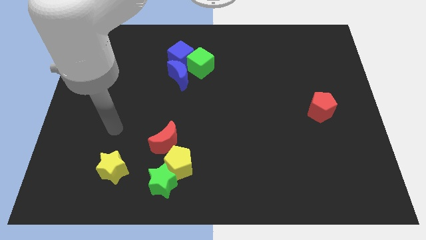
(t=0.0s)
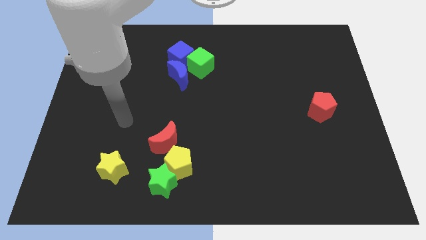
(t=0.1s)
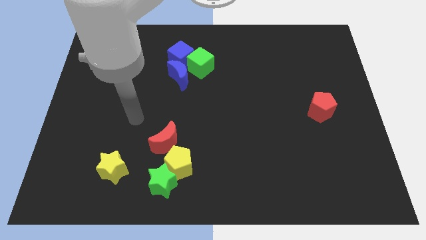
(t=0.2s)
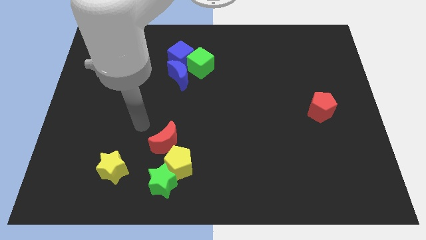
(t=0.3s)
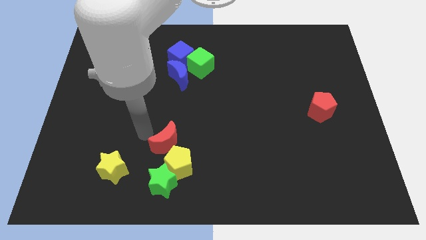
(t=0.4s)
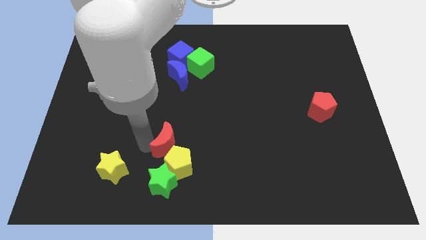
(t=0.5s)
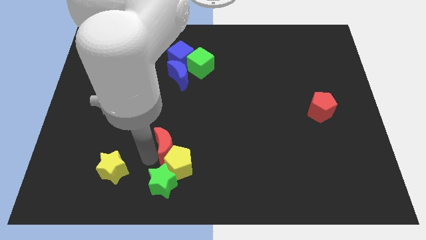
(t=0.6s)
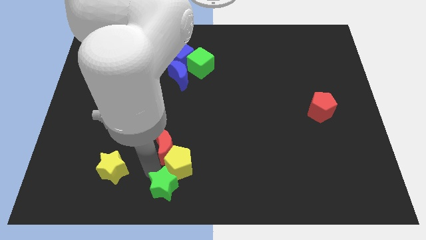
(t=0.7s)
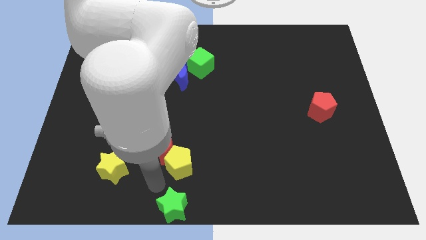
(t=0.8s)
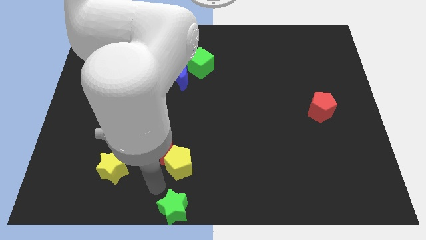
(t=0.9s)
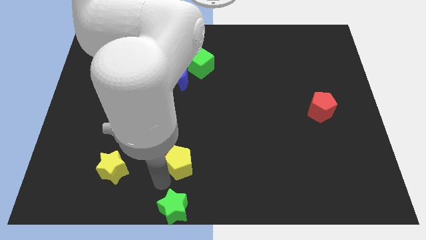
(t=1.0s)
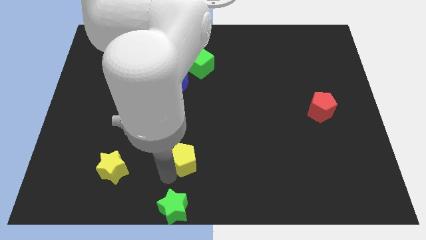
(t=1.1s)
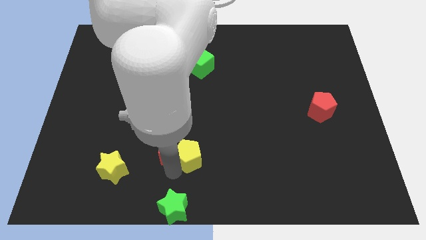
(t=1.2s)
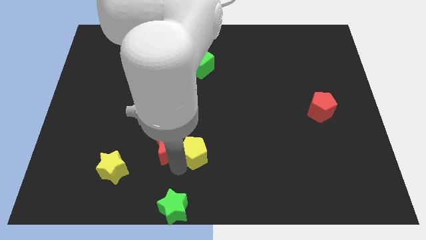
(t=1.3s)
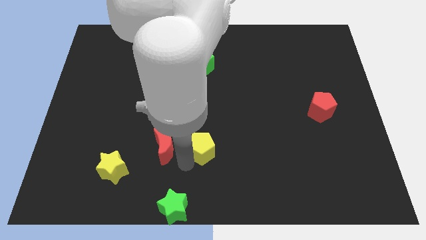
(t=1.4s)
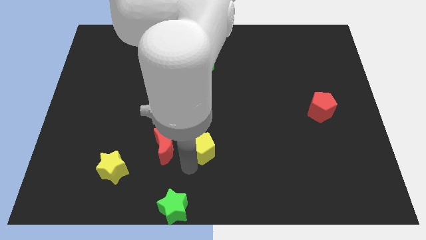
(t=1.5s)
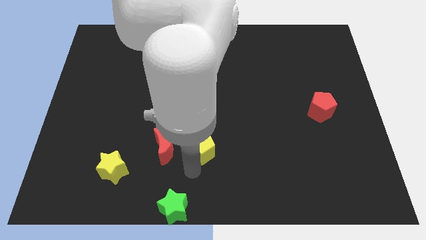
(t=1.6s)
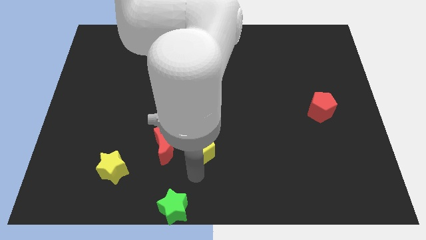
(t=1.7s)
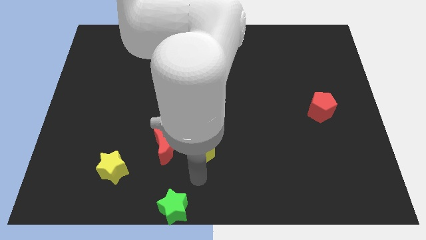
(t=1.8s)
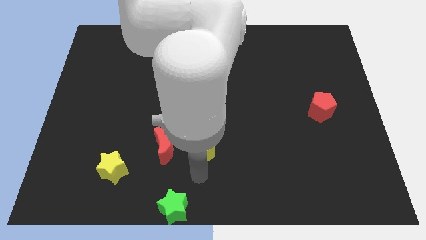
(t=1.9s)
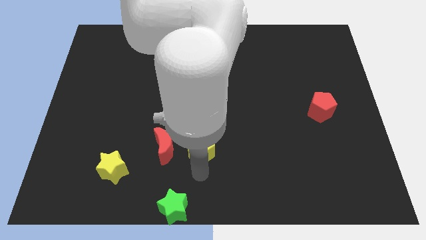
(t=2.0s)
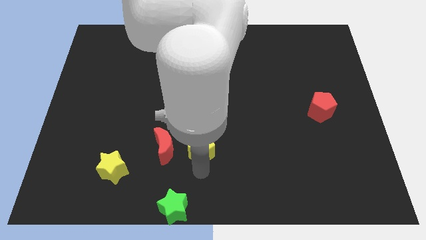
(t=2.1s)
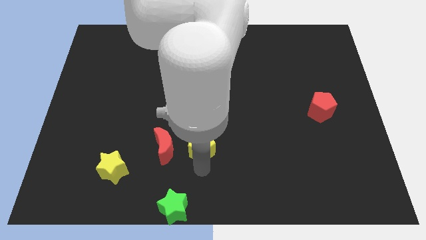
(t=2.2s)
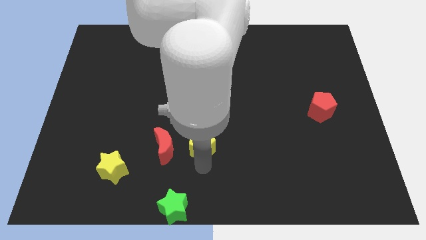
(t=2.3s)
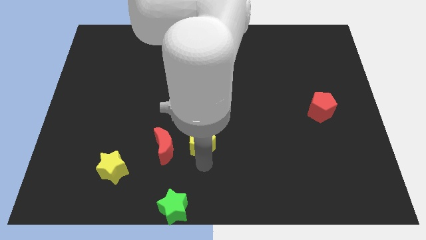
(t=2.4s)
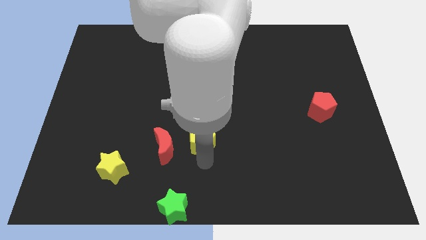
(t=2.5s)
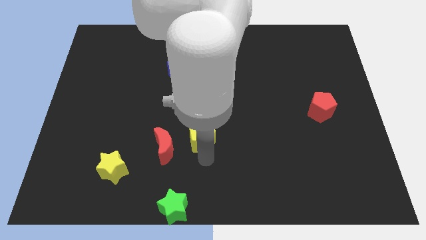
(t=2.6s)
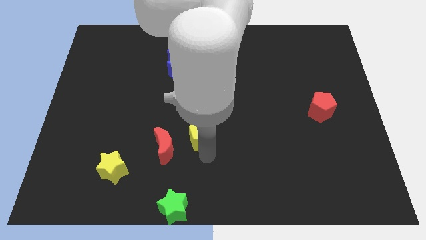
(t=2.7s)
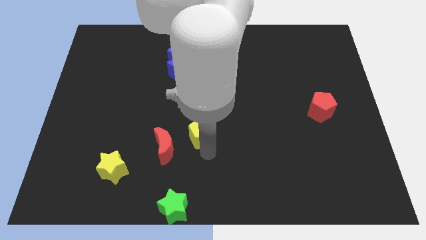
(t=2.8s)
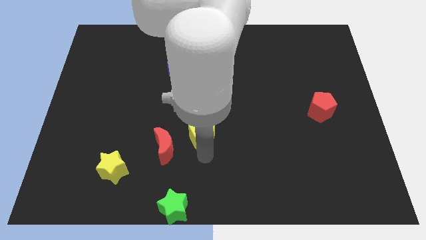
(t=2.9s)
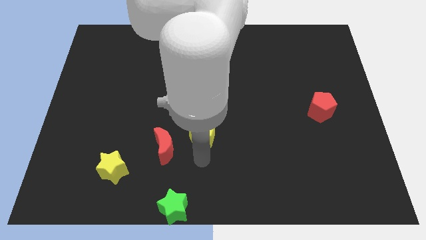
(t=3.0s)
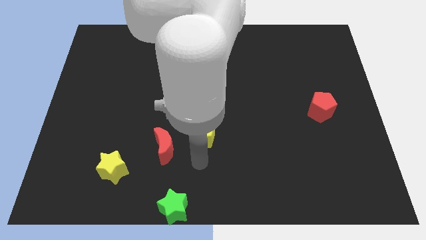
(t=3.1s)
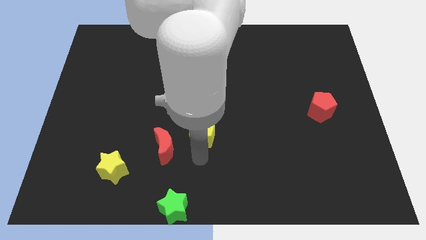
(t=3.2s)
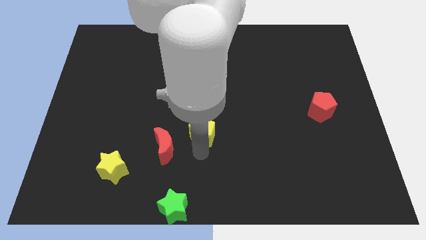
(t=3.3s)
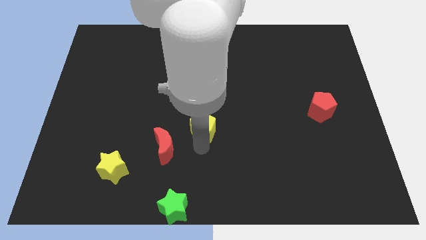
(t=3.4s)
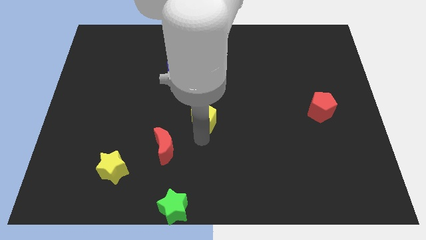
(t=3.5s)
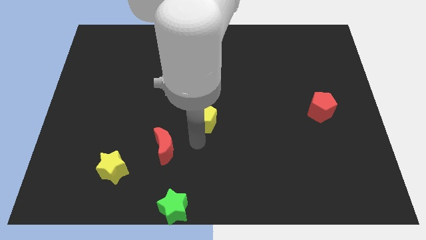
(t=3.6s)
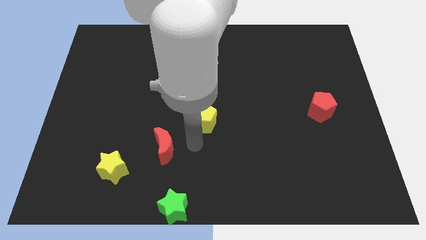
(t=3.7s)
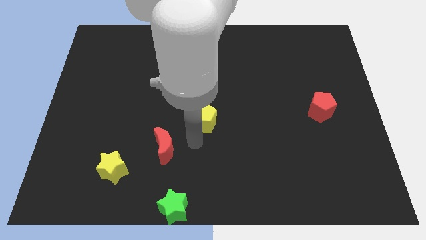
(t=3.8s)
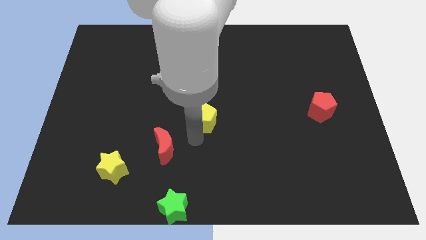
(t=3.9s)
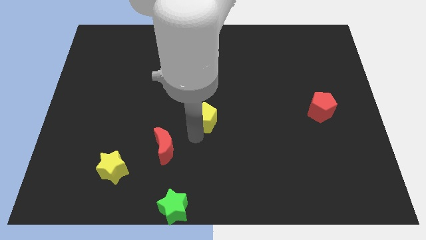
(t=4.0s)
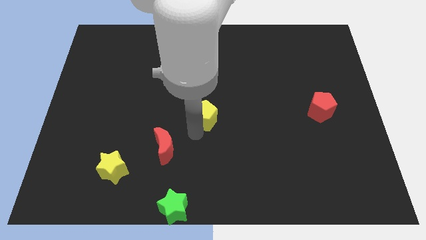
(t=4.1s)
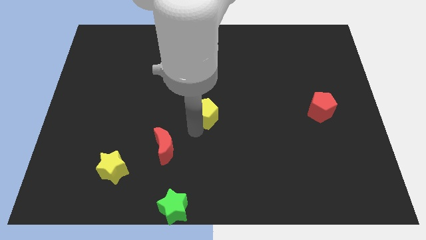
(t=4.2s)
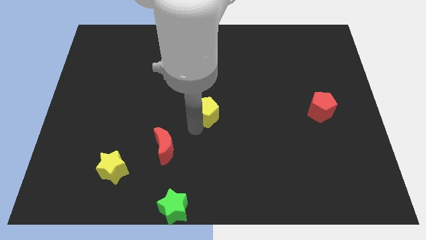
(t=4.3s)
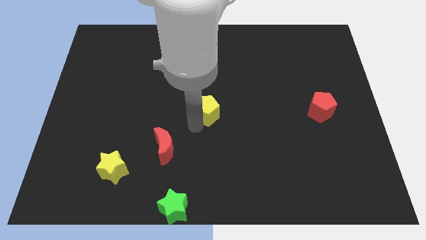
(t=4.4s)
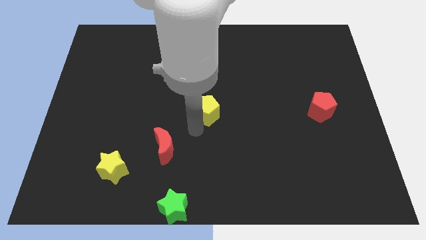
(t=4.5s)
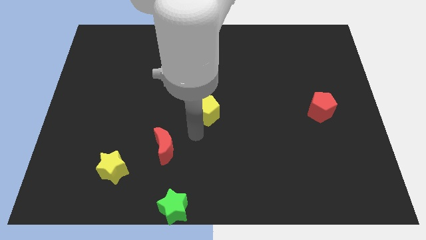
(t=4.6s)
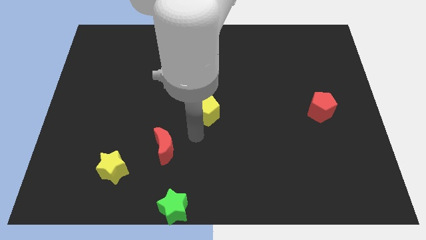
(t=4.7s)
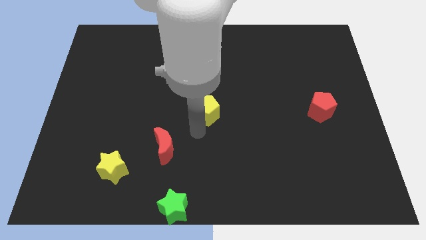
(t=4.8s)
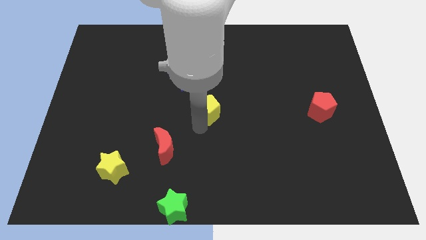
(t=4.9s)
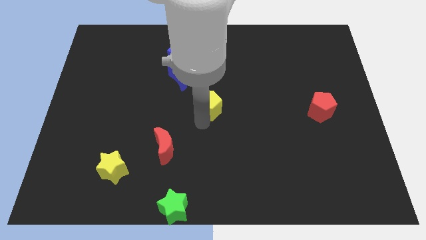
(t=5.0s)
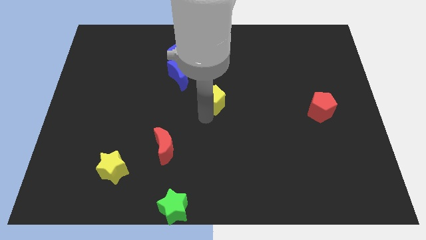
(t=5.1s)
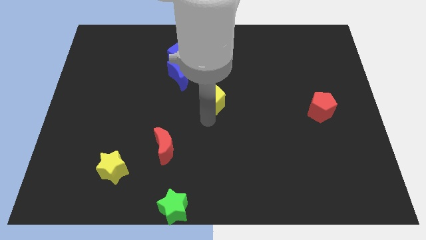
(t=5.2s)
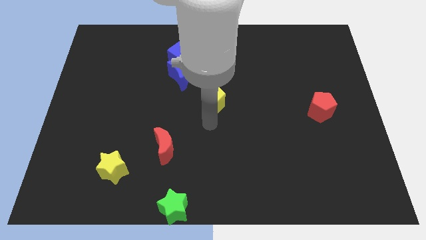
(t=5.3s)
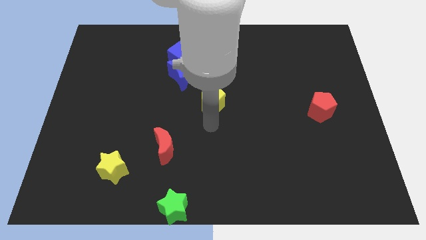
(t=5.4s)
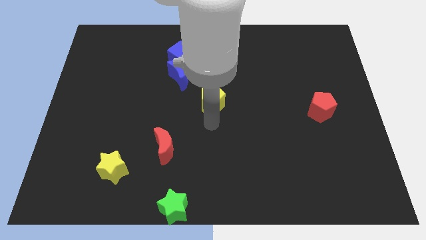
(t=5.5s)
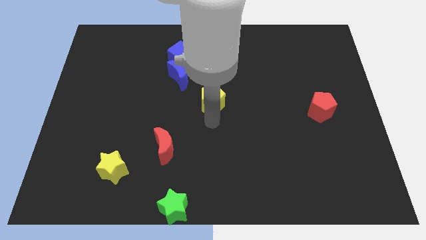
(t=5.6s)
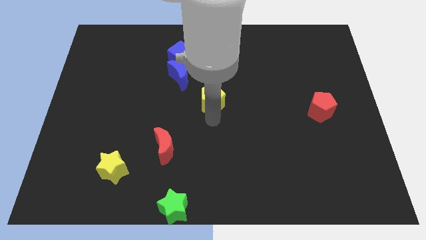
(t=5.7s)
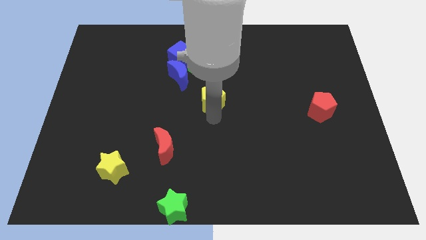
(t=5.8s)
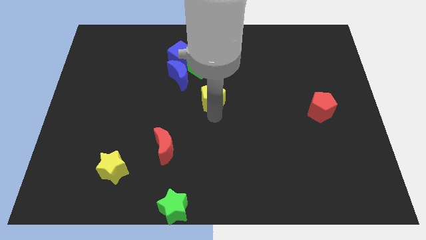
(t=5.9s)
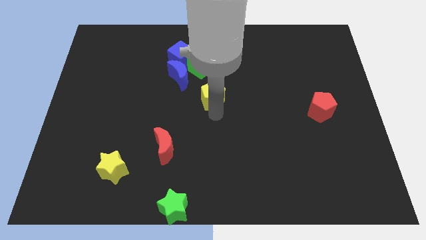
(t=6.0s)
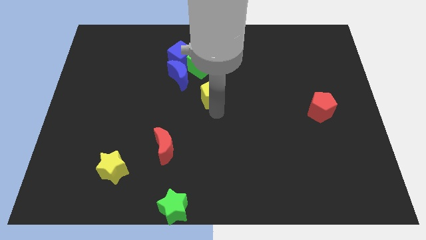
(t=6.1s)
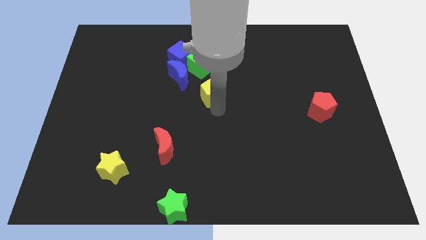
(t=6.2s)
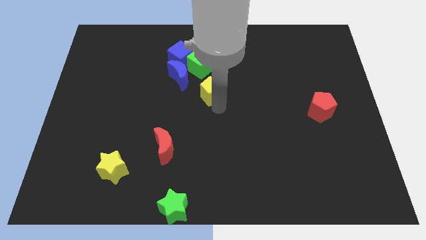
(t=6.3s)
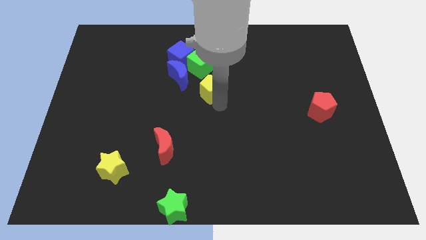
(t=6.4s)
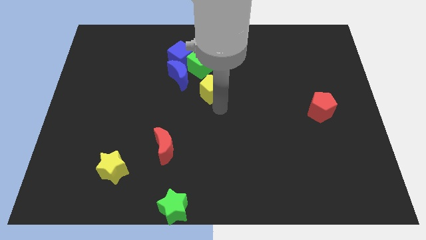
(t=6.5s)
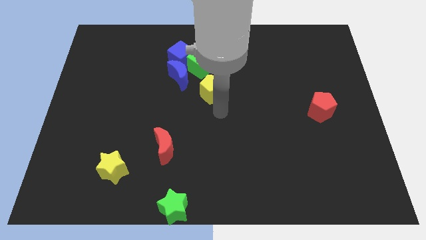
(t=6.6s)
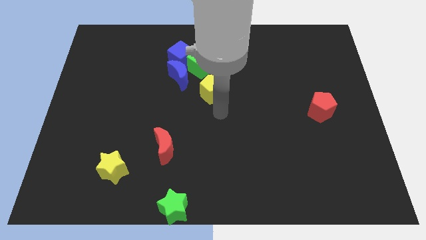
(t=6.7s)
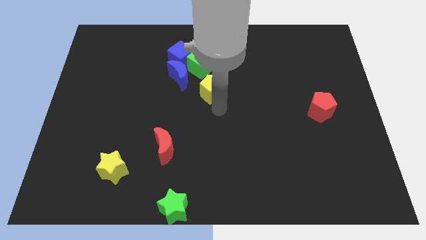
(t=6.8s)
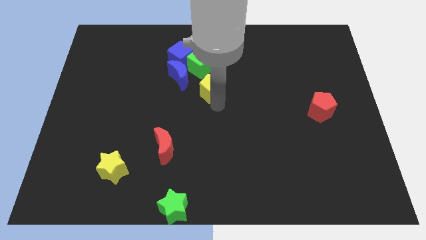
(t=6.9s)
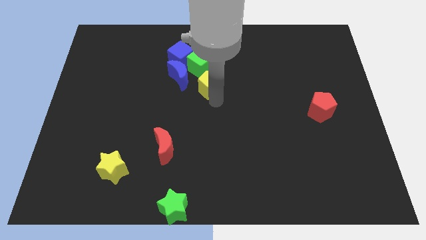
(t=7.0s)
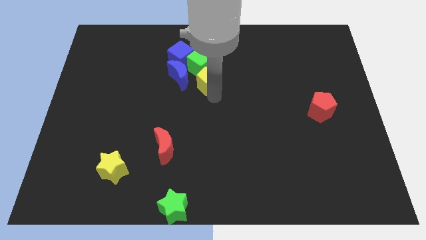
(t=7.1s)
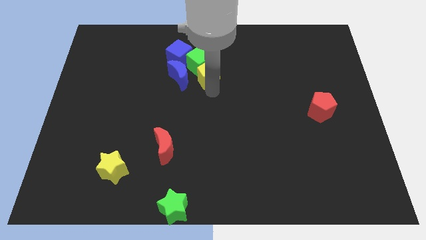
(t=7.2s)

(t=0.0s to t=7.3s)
move the yellow pentagon next to the green cube

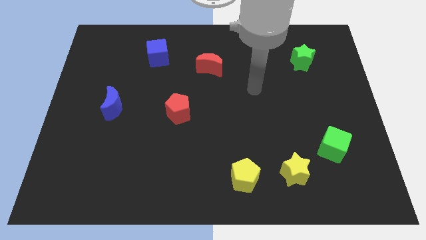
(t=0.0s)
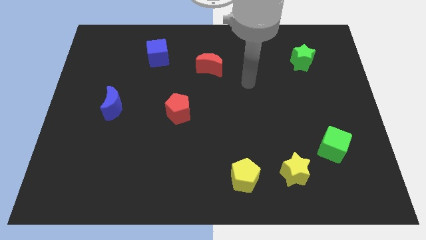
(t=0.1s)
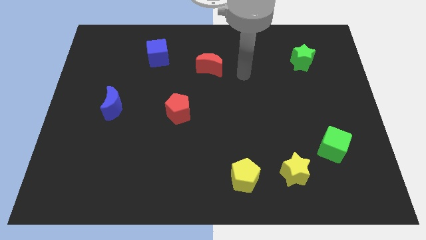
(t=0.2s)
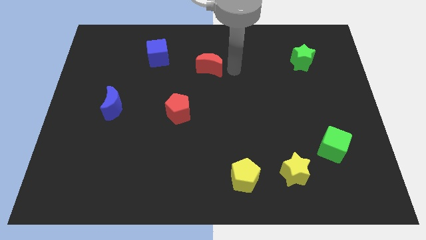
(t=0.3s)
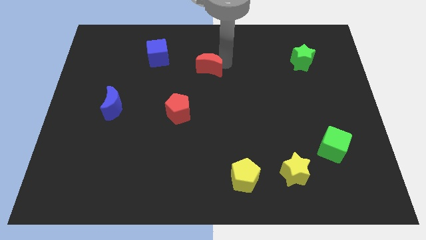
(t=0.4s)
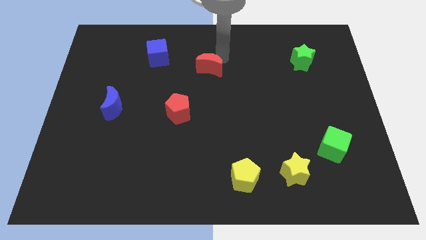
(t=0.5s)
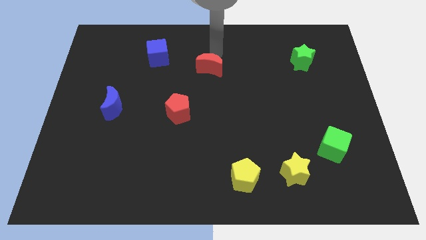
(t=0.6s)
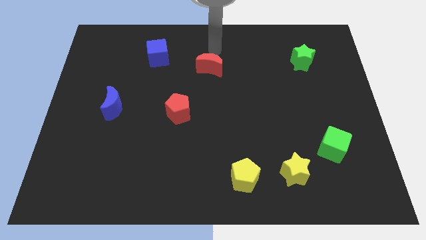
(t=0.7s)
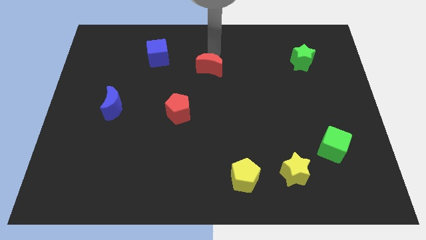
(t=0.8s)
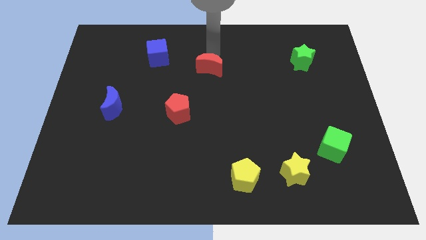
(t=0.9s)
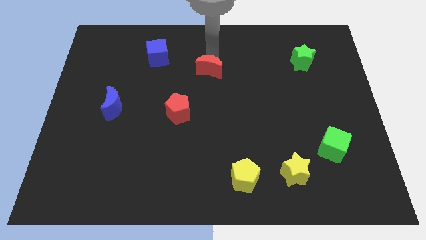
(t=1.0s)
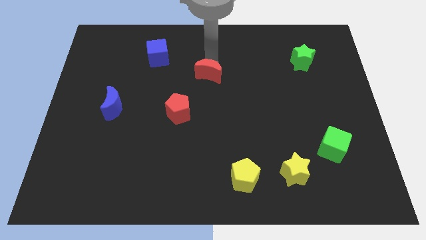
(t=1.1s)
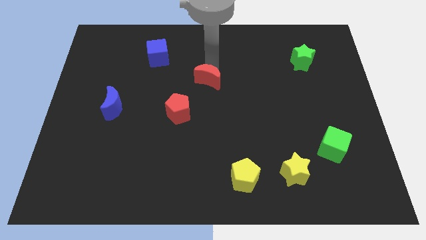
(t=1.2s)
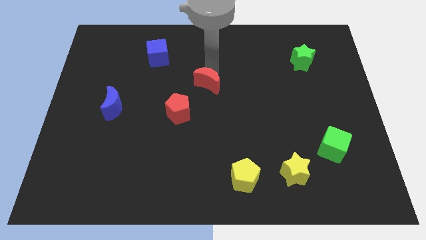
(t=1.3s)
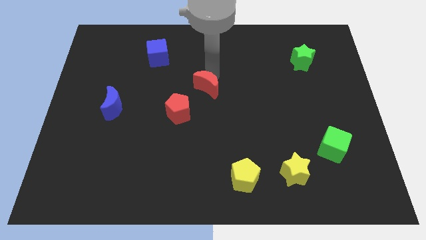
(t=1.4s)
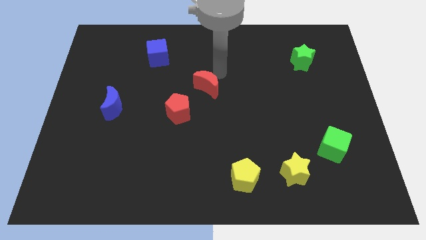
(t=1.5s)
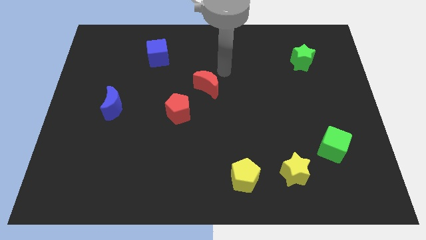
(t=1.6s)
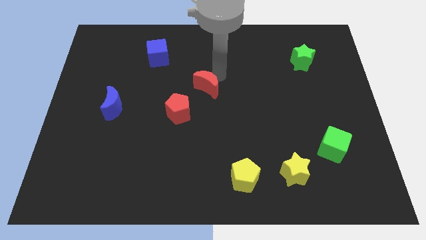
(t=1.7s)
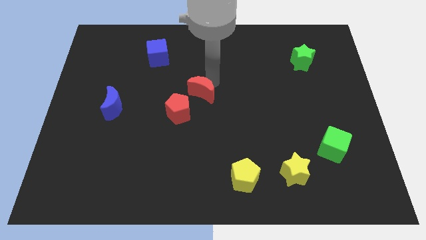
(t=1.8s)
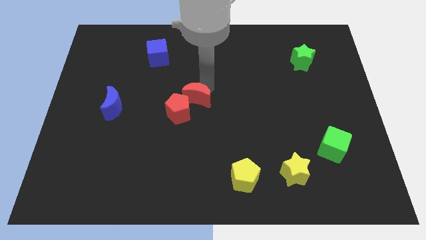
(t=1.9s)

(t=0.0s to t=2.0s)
put the red moon close to the red pentagon
